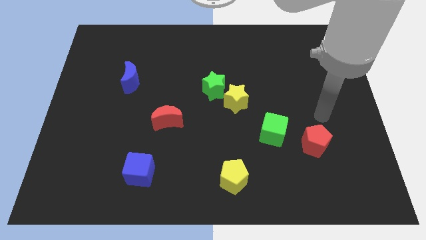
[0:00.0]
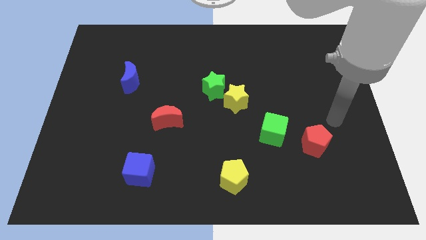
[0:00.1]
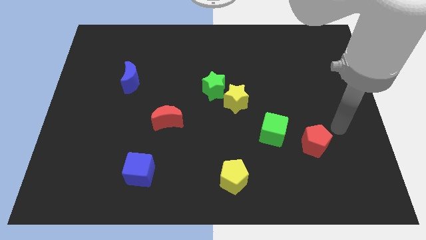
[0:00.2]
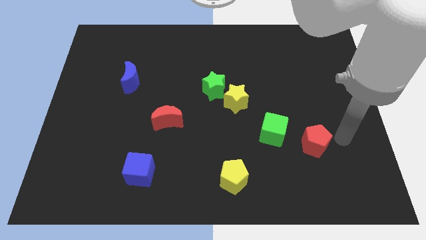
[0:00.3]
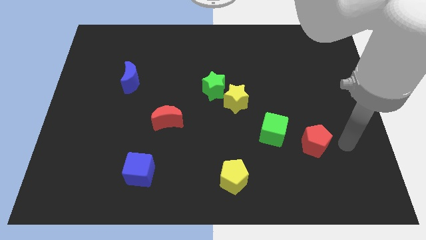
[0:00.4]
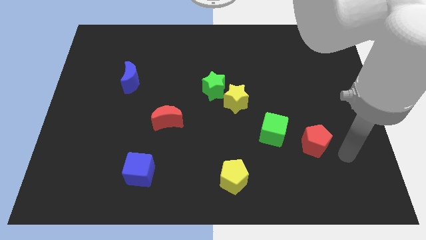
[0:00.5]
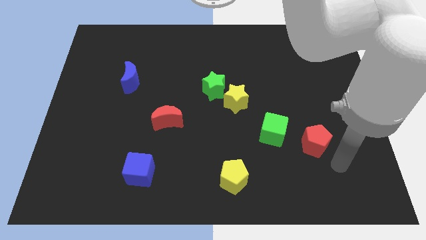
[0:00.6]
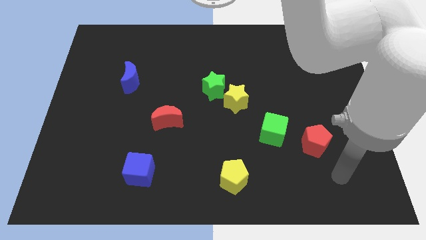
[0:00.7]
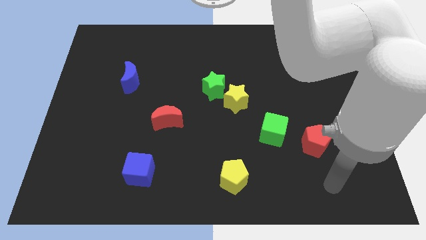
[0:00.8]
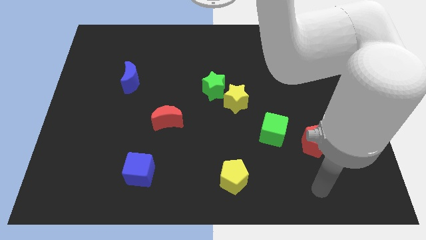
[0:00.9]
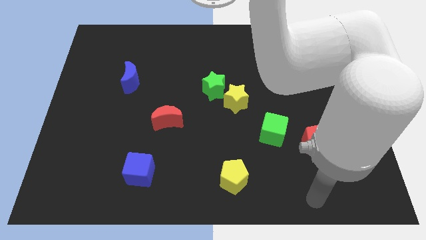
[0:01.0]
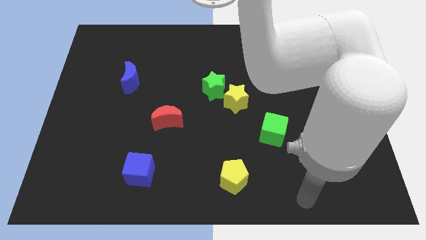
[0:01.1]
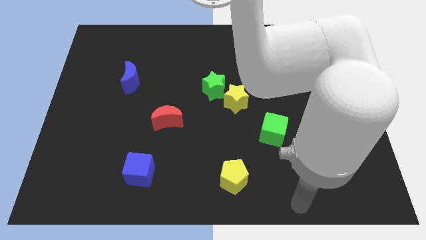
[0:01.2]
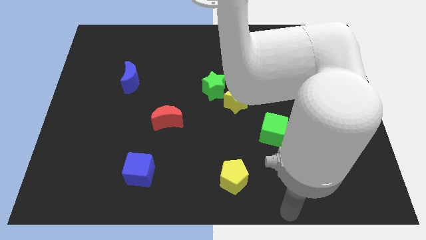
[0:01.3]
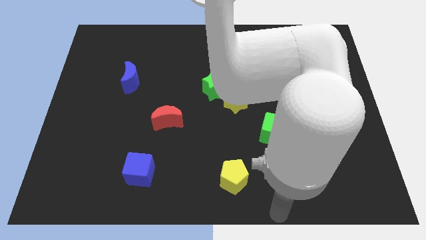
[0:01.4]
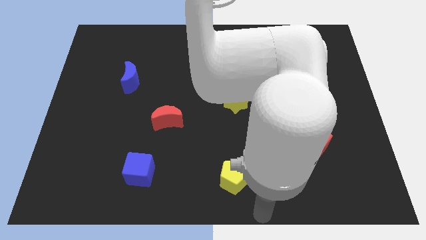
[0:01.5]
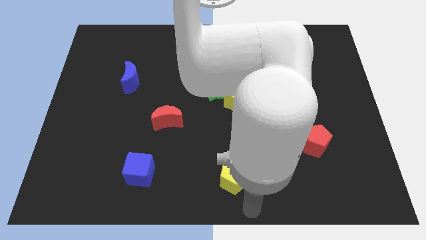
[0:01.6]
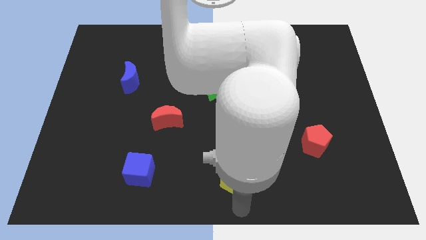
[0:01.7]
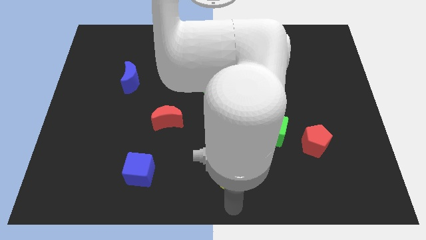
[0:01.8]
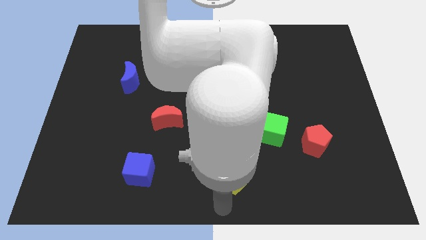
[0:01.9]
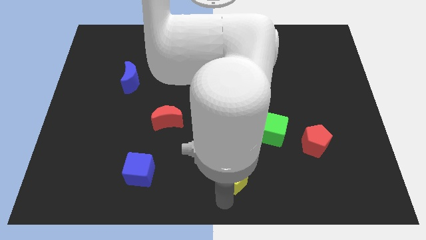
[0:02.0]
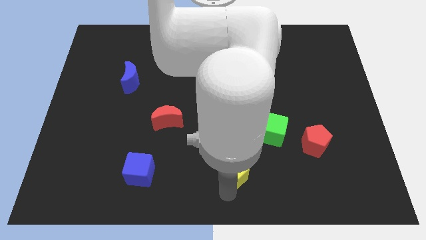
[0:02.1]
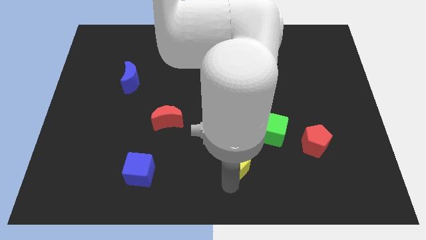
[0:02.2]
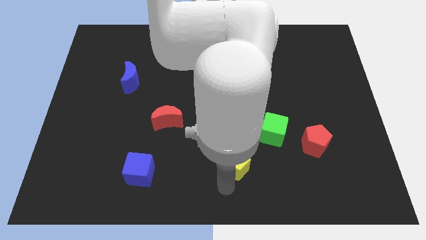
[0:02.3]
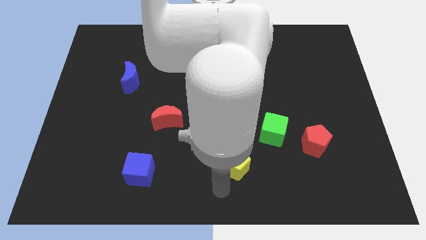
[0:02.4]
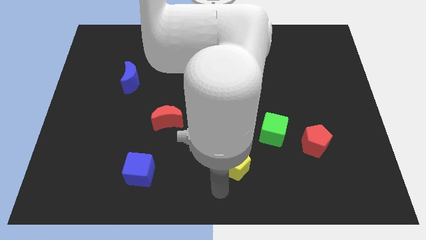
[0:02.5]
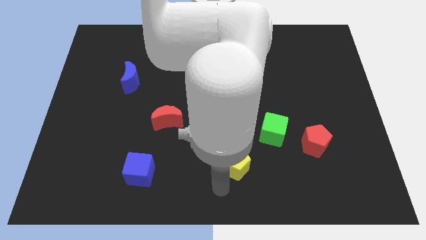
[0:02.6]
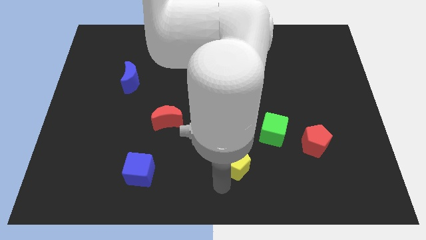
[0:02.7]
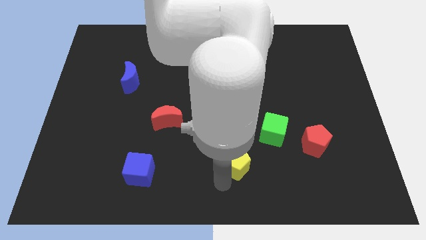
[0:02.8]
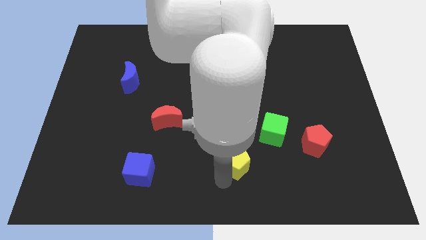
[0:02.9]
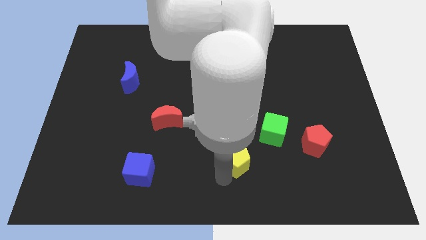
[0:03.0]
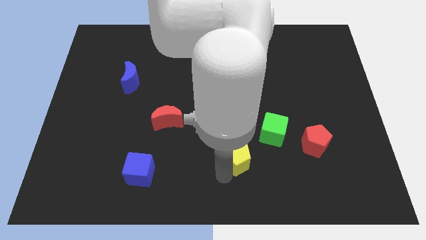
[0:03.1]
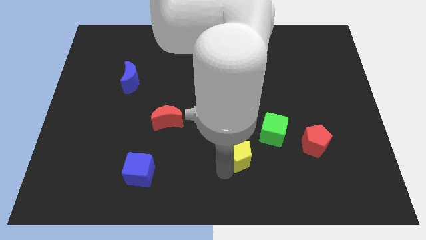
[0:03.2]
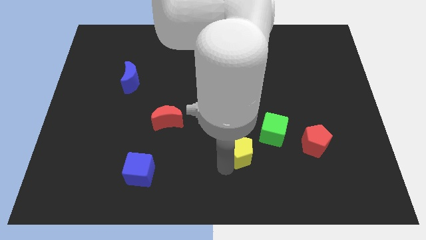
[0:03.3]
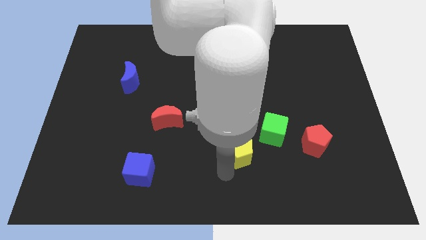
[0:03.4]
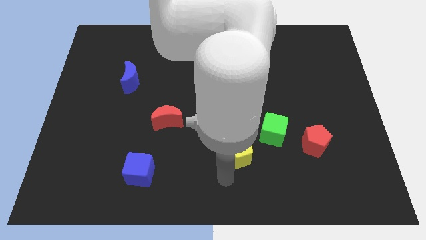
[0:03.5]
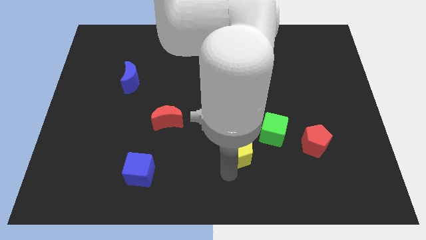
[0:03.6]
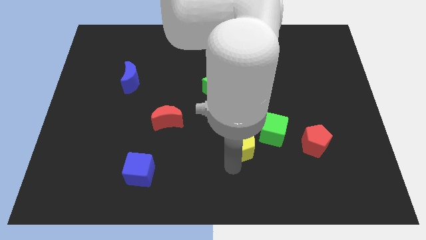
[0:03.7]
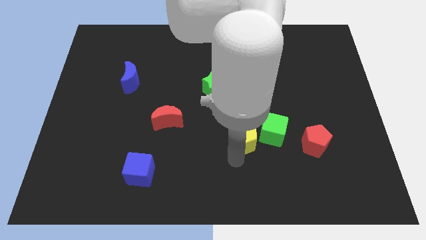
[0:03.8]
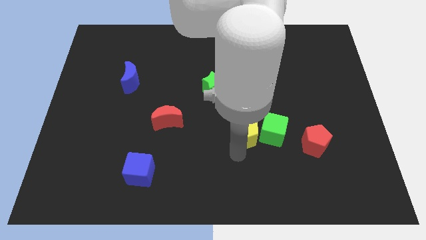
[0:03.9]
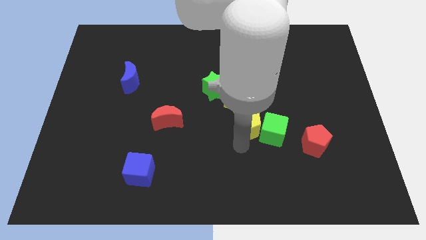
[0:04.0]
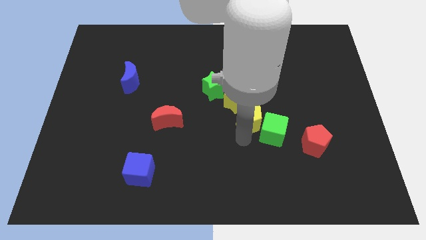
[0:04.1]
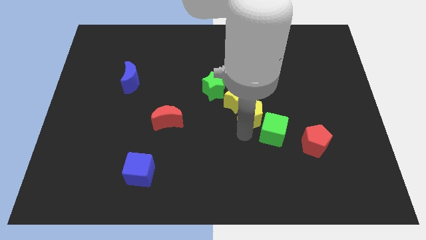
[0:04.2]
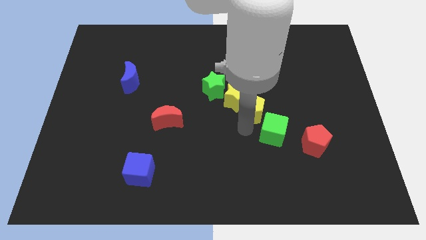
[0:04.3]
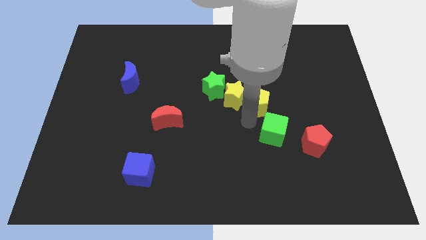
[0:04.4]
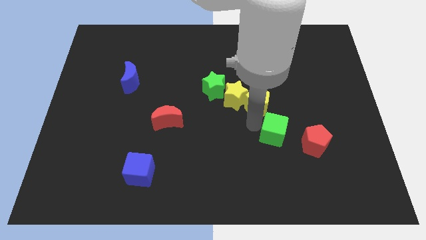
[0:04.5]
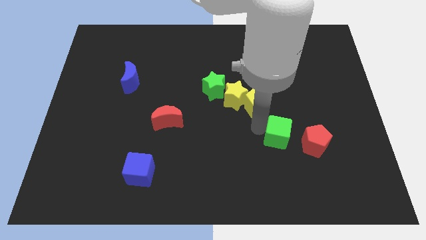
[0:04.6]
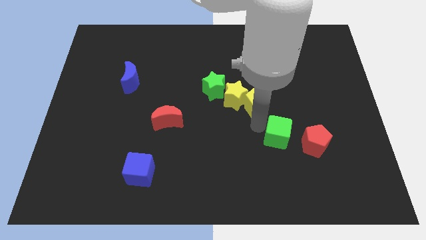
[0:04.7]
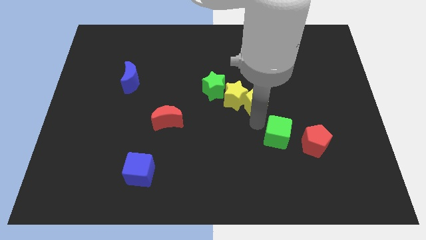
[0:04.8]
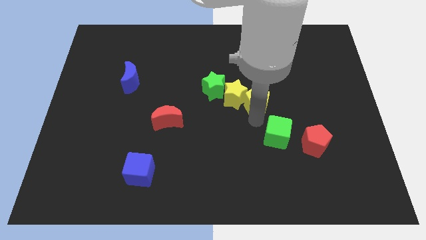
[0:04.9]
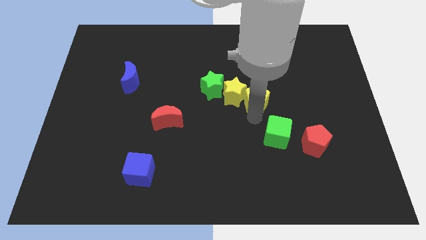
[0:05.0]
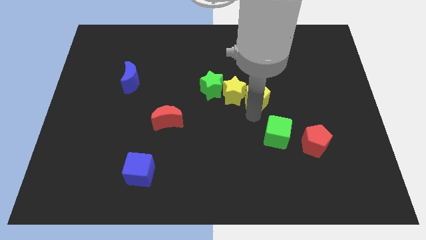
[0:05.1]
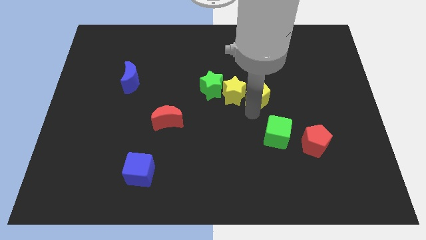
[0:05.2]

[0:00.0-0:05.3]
put the yellow pentagon to the top right side of the yellow star

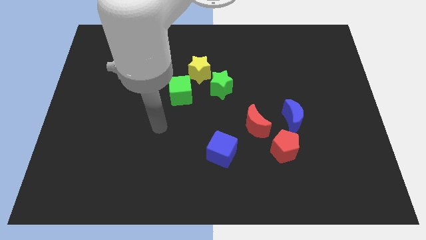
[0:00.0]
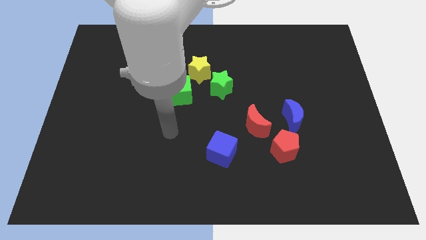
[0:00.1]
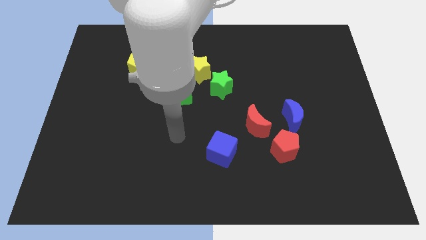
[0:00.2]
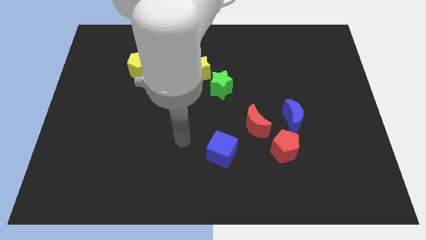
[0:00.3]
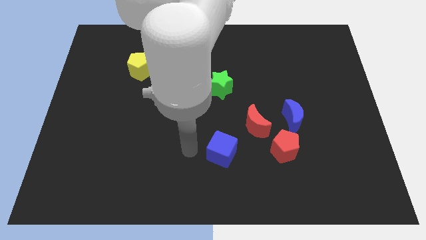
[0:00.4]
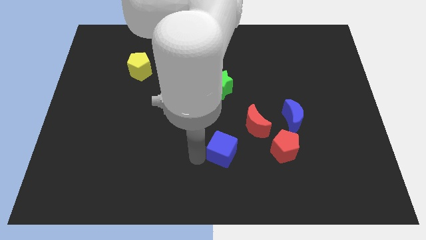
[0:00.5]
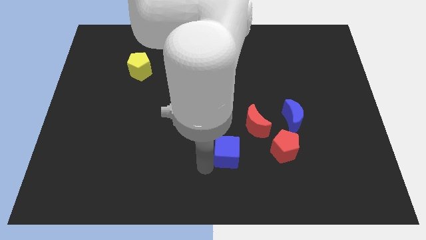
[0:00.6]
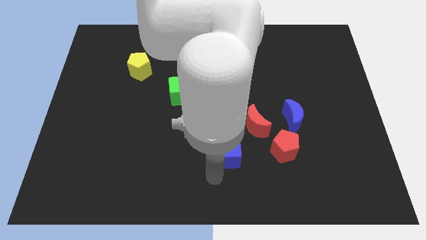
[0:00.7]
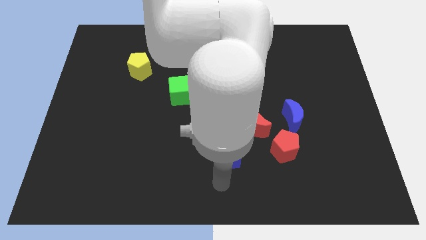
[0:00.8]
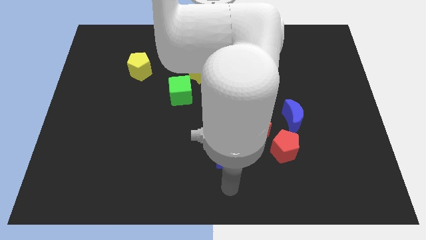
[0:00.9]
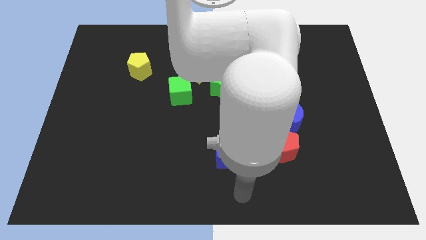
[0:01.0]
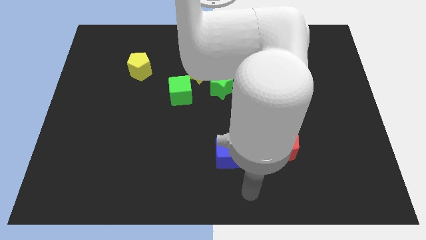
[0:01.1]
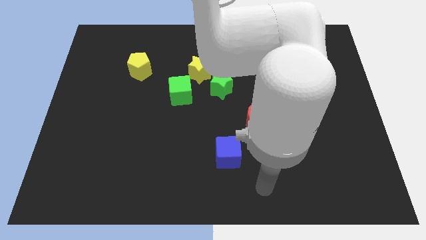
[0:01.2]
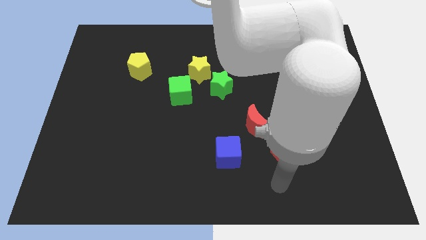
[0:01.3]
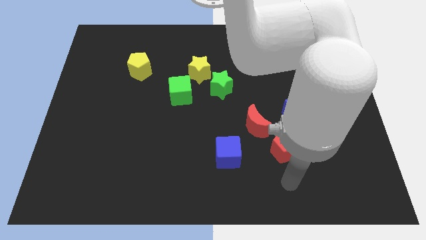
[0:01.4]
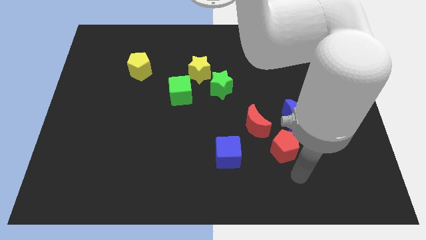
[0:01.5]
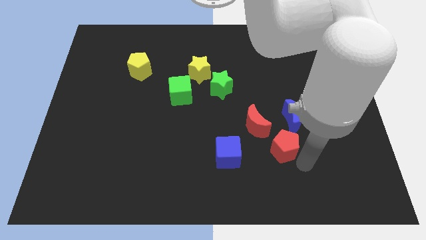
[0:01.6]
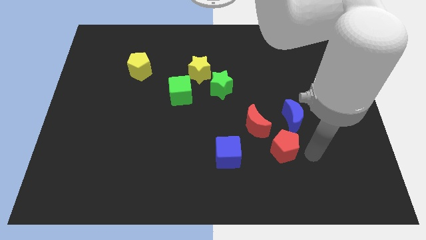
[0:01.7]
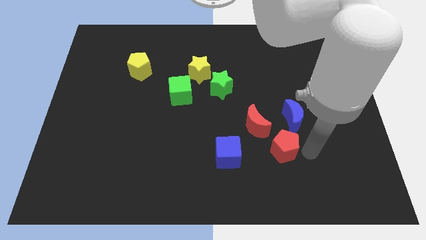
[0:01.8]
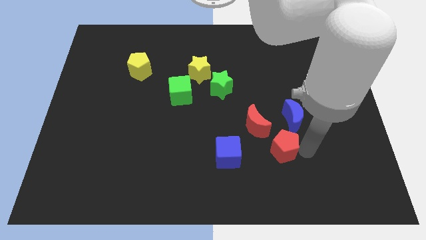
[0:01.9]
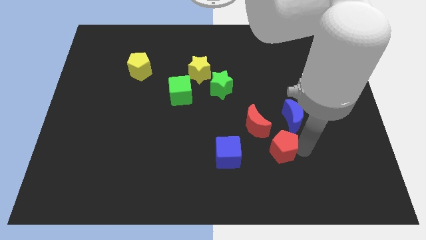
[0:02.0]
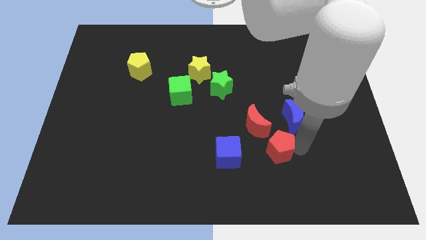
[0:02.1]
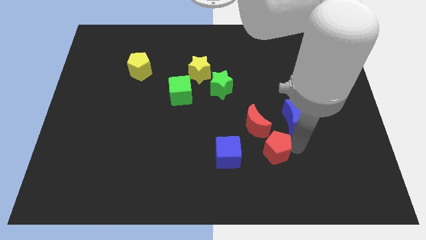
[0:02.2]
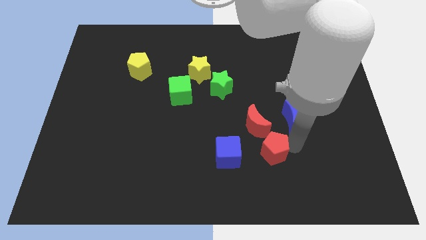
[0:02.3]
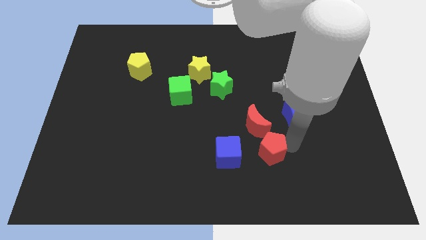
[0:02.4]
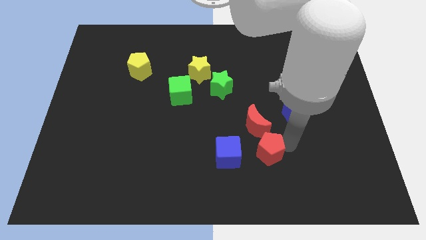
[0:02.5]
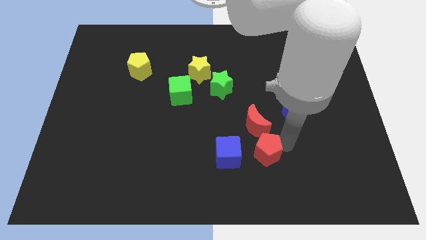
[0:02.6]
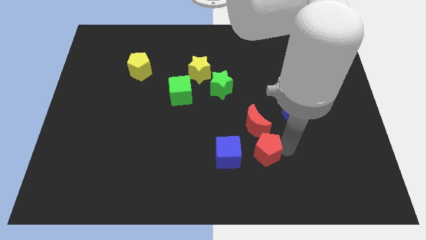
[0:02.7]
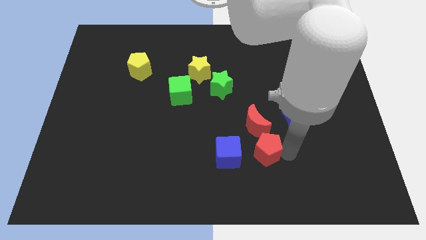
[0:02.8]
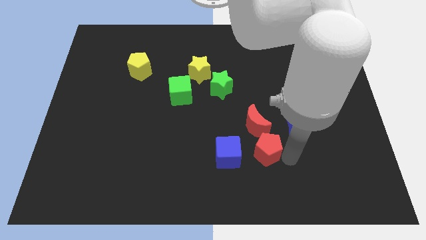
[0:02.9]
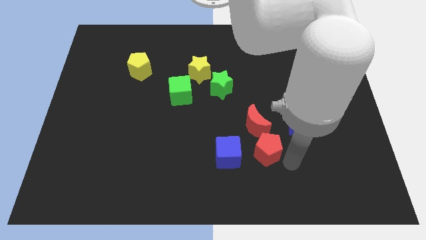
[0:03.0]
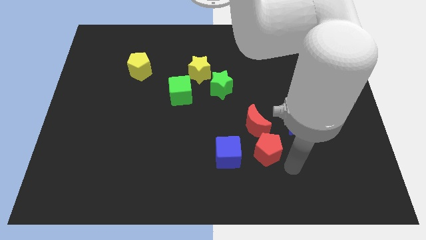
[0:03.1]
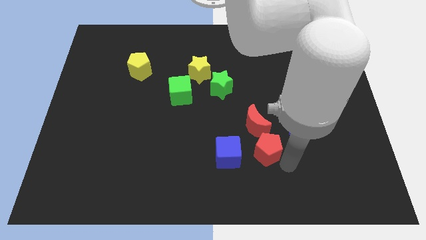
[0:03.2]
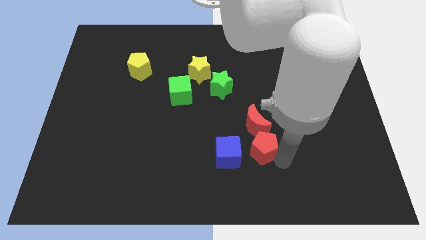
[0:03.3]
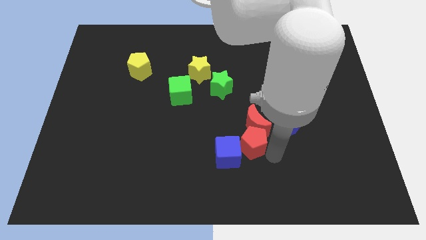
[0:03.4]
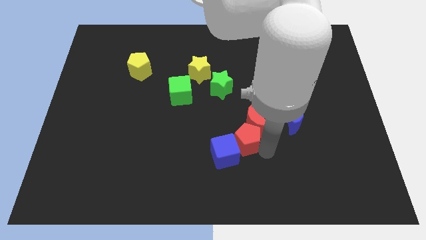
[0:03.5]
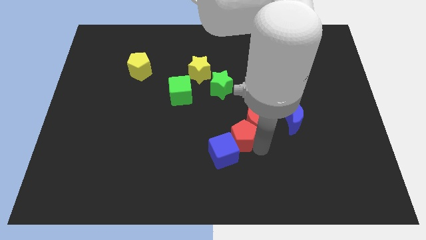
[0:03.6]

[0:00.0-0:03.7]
move the red pentagon left of the red moon
